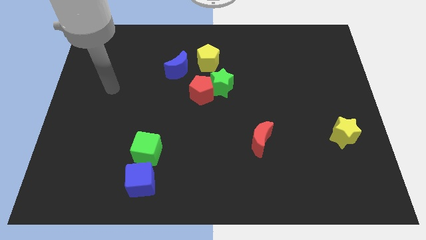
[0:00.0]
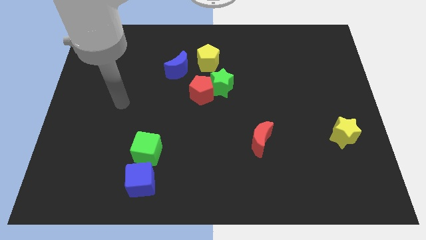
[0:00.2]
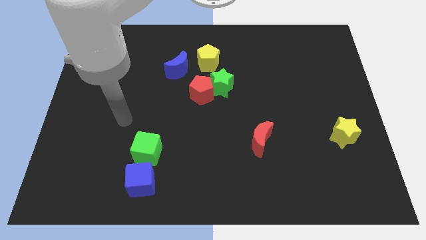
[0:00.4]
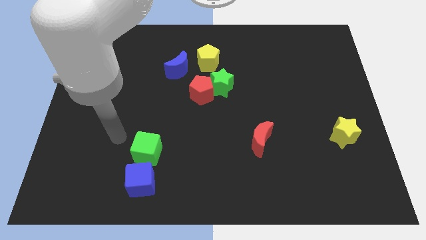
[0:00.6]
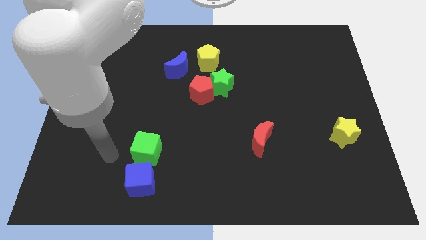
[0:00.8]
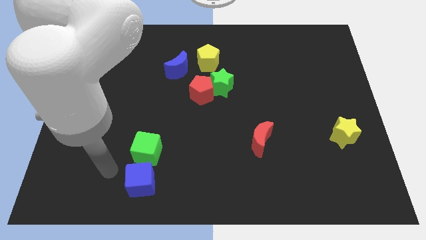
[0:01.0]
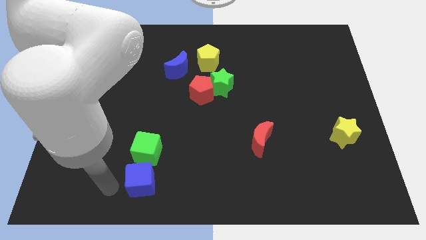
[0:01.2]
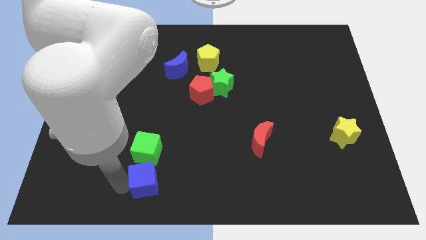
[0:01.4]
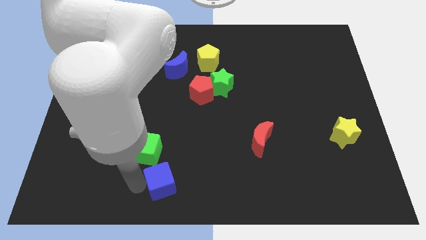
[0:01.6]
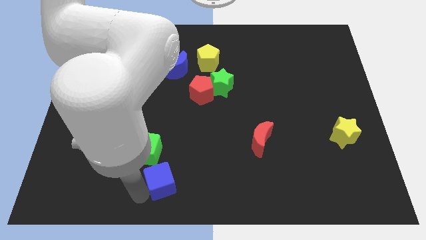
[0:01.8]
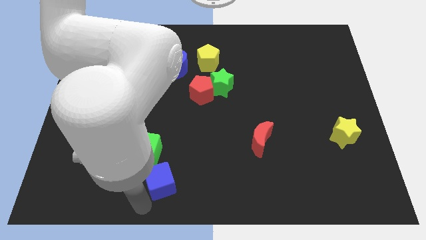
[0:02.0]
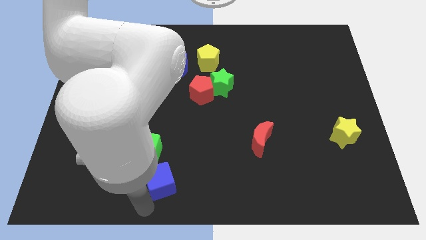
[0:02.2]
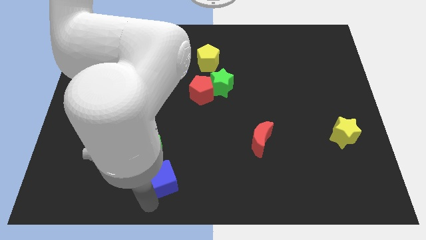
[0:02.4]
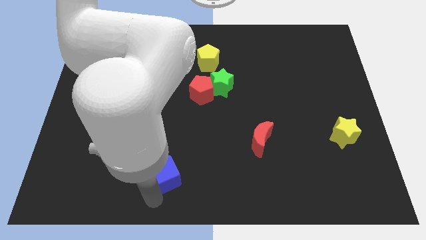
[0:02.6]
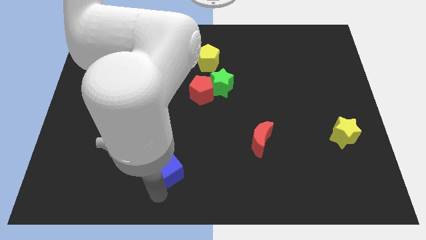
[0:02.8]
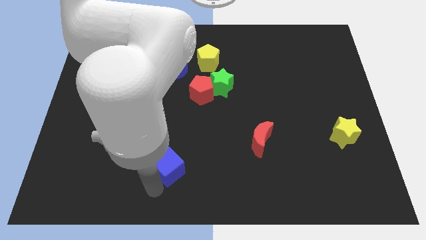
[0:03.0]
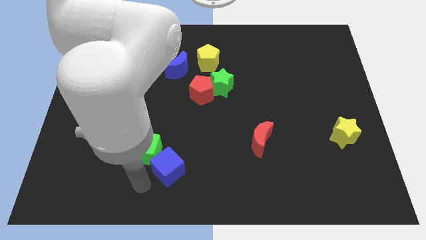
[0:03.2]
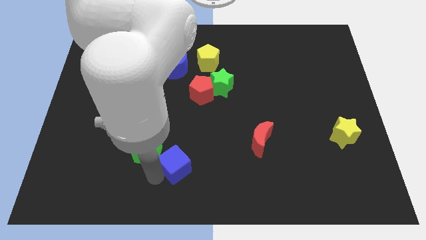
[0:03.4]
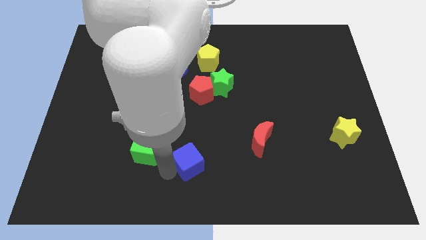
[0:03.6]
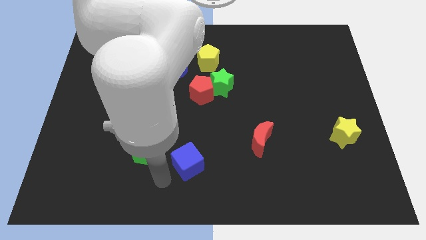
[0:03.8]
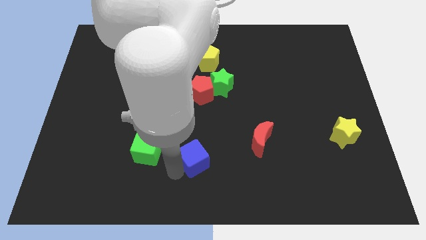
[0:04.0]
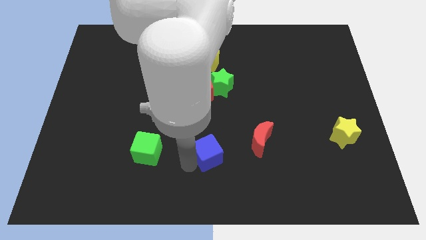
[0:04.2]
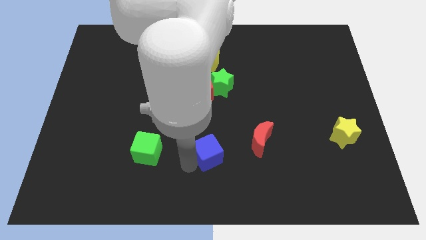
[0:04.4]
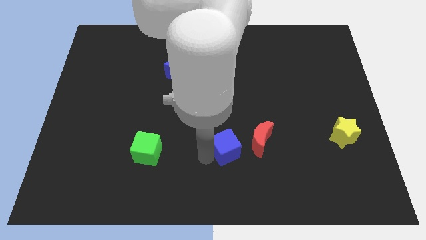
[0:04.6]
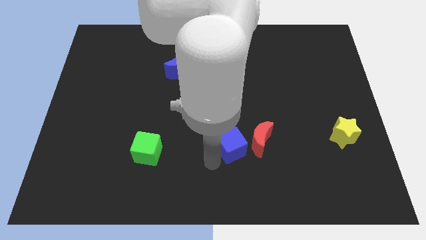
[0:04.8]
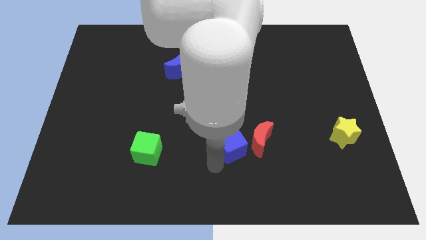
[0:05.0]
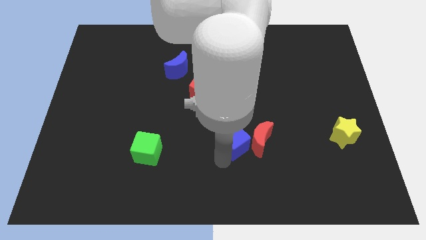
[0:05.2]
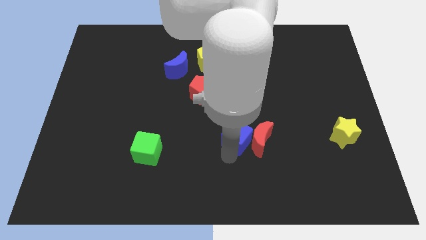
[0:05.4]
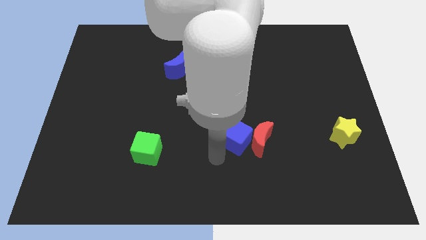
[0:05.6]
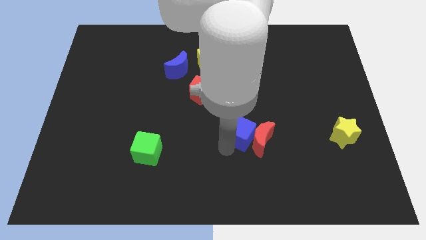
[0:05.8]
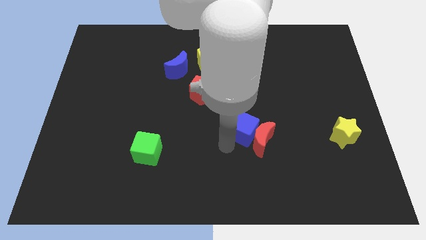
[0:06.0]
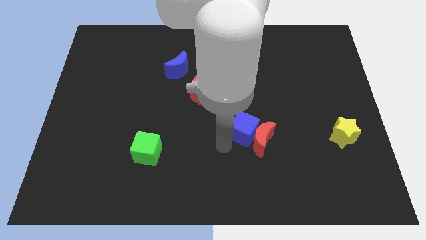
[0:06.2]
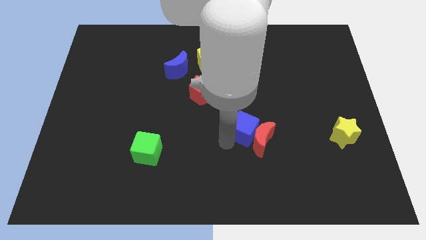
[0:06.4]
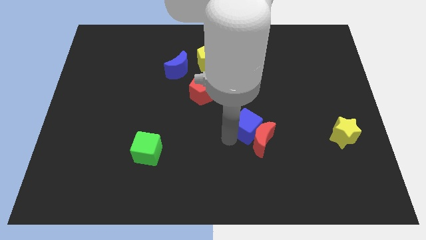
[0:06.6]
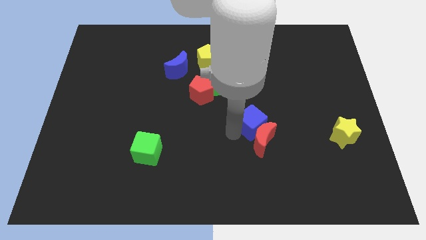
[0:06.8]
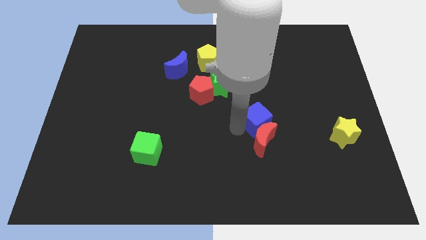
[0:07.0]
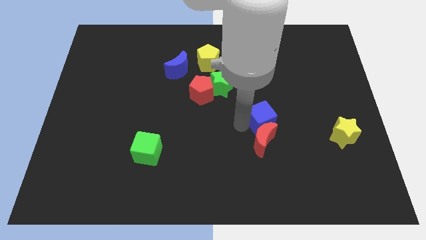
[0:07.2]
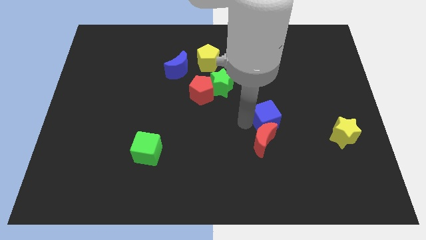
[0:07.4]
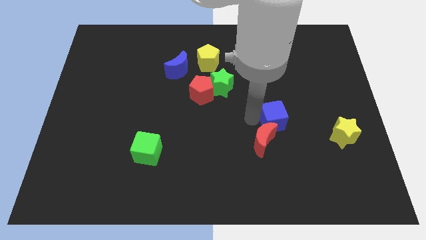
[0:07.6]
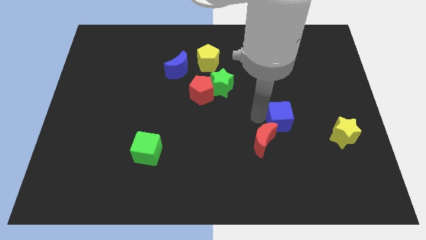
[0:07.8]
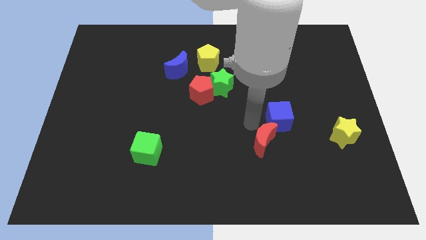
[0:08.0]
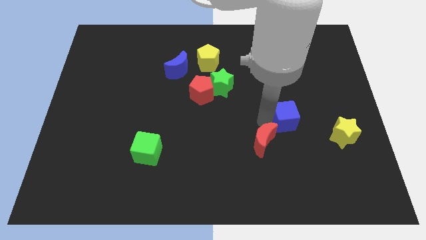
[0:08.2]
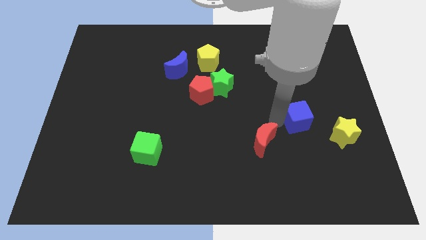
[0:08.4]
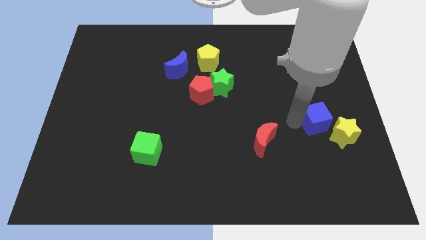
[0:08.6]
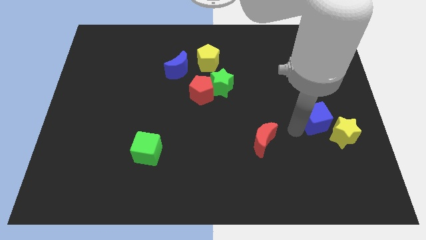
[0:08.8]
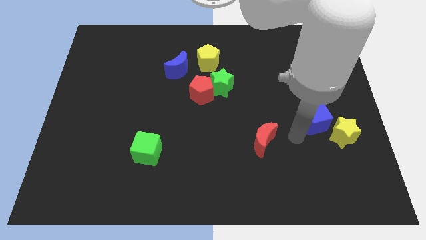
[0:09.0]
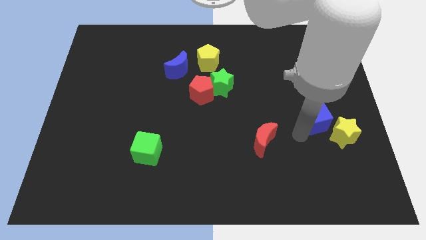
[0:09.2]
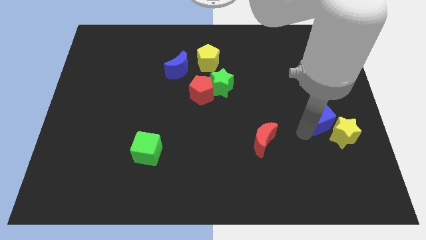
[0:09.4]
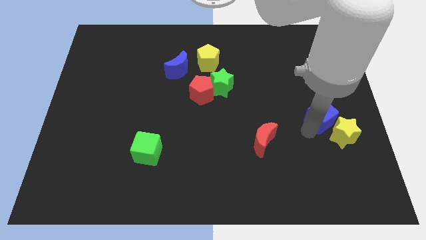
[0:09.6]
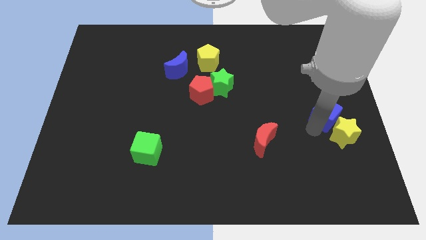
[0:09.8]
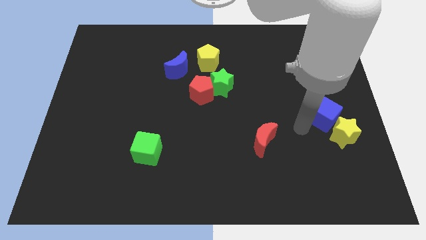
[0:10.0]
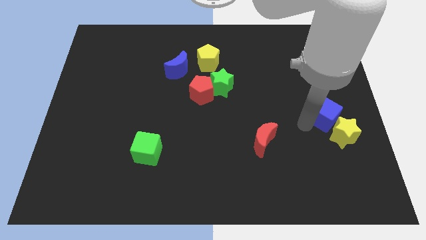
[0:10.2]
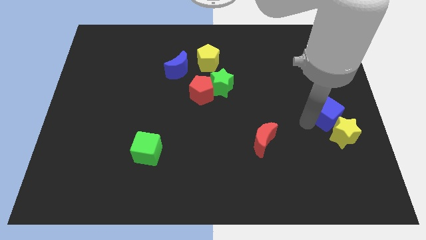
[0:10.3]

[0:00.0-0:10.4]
push the blue cube to the center right
